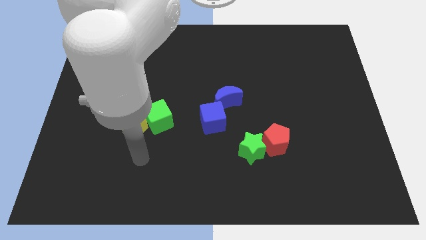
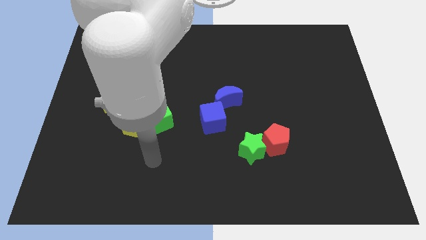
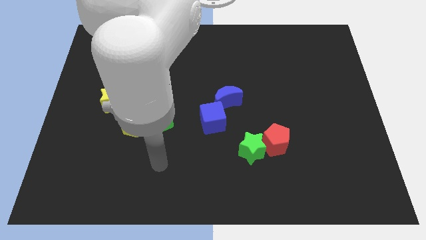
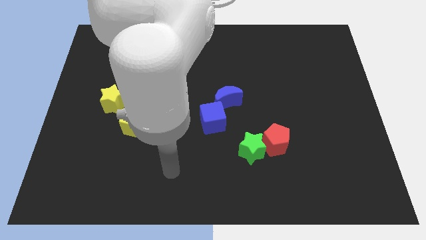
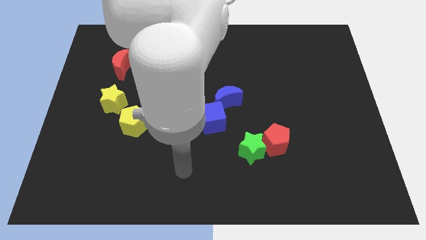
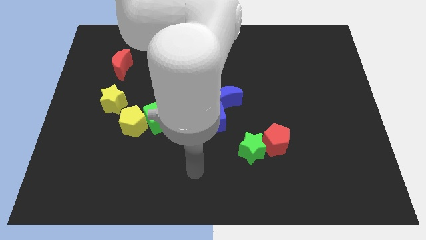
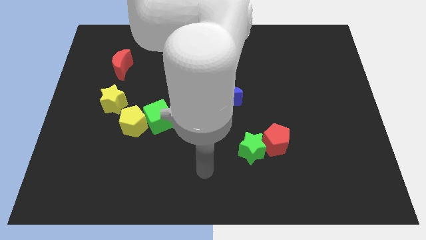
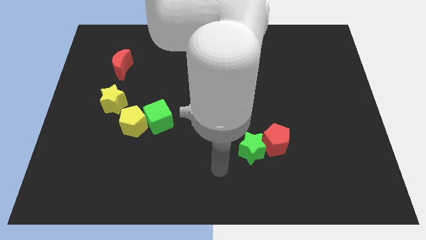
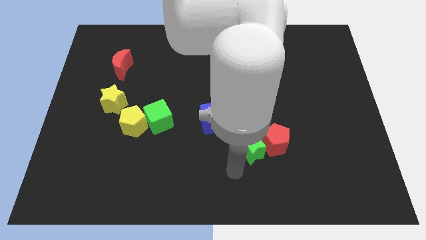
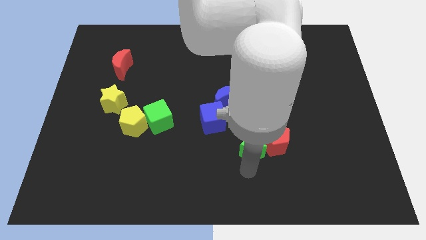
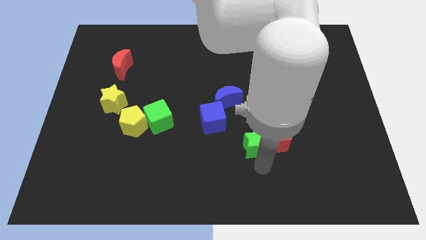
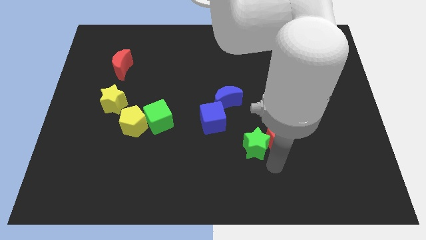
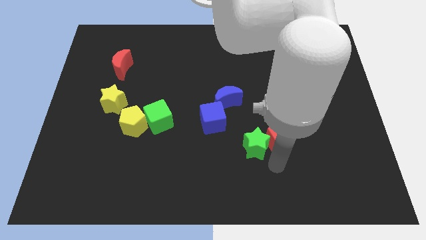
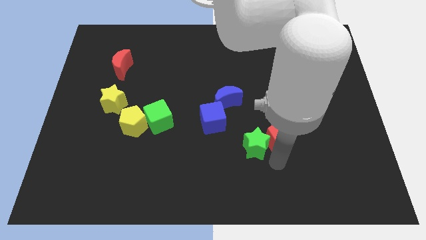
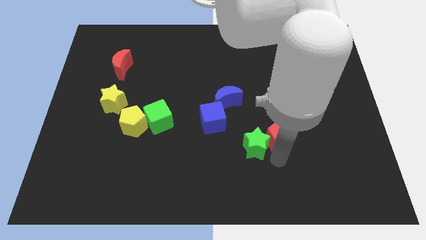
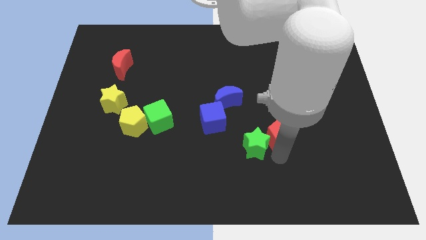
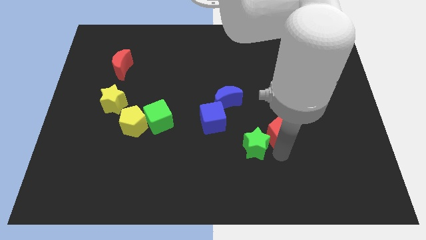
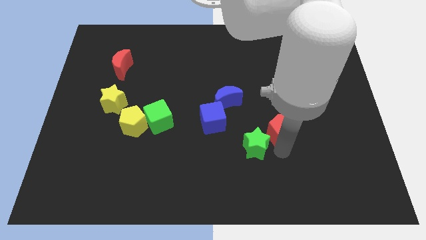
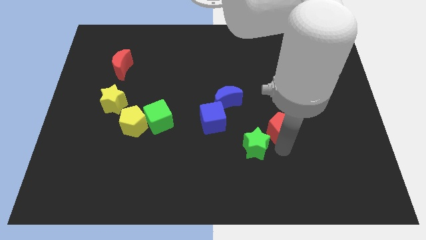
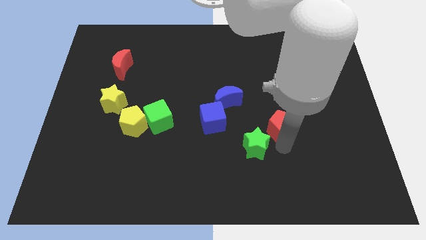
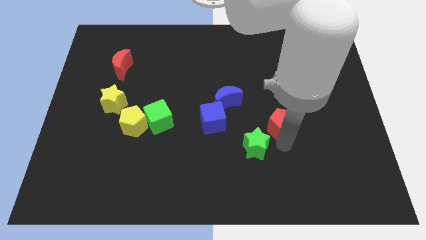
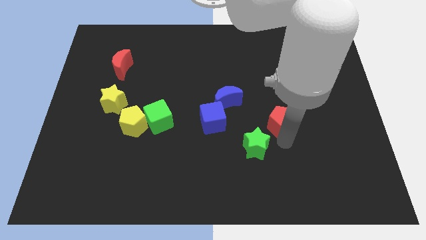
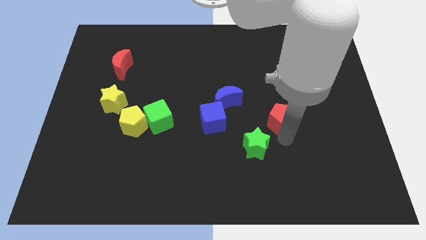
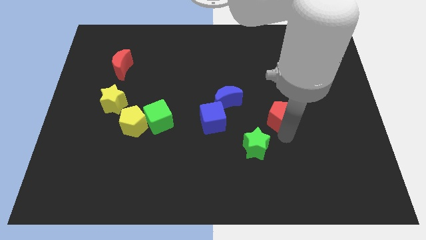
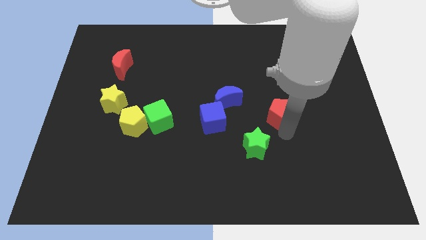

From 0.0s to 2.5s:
push the red pentagon up slightly

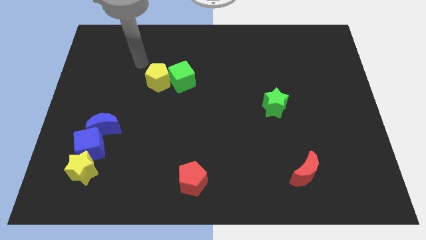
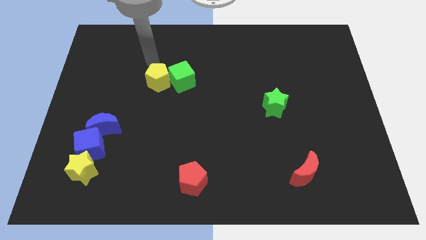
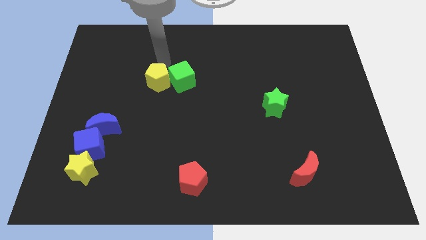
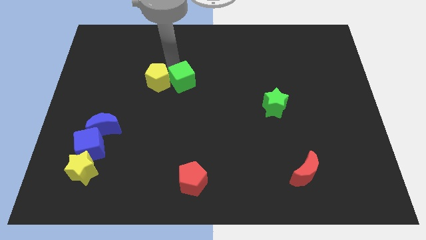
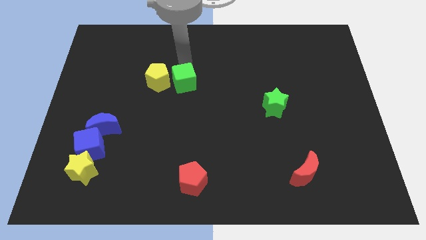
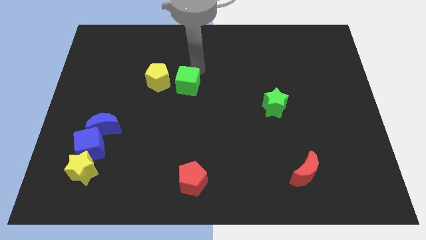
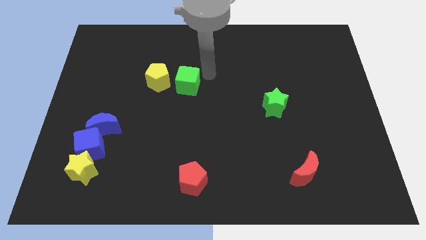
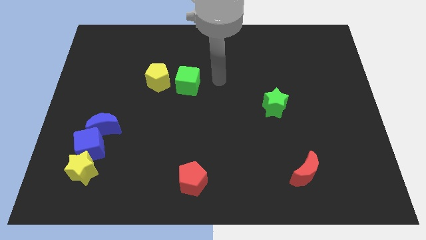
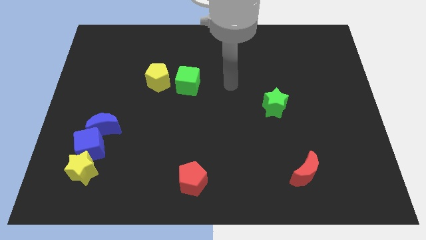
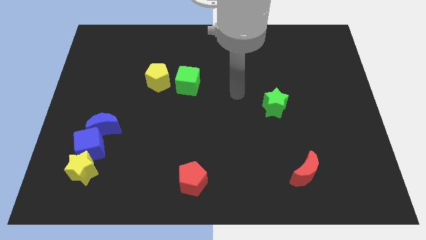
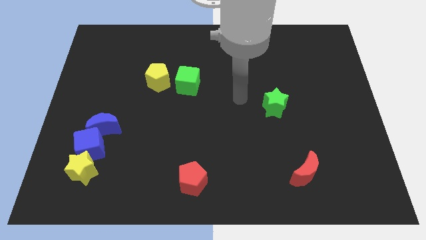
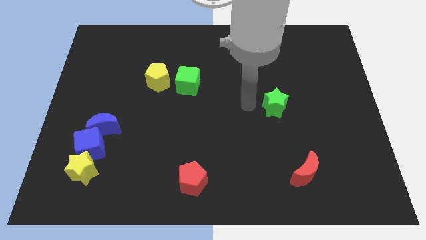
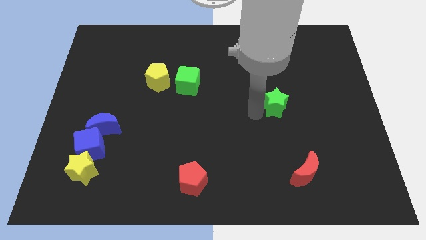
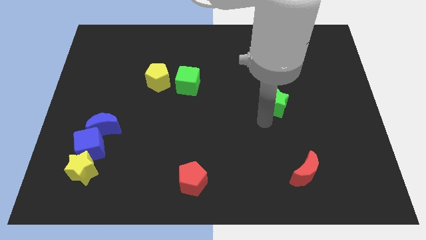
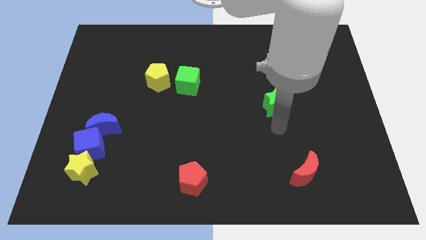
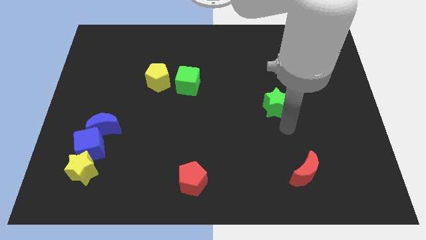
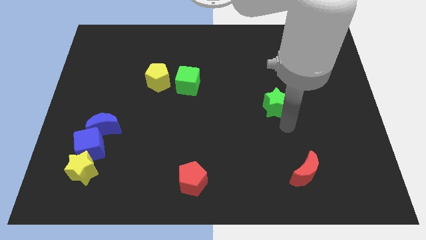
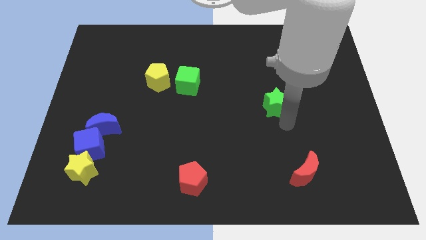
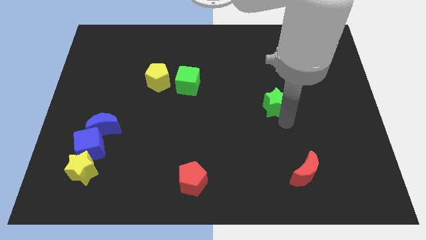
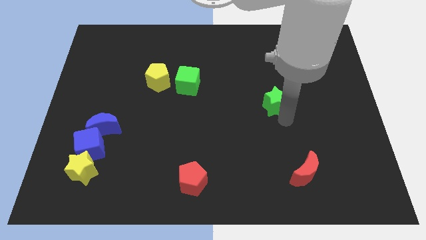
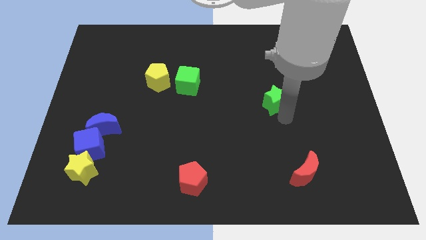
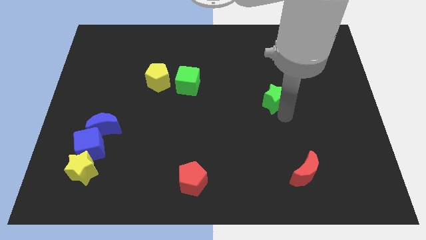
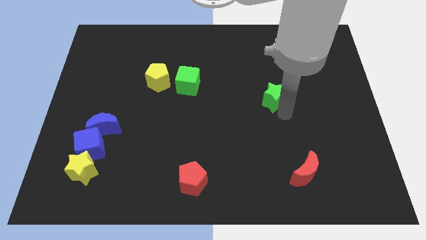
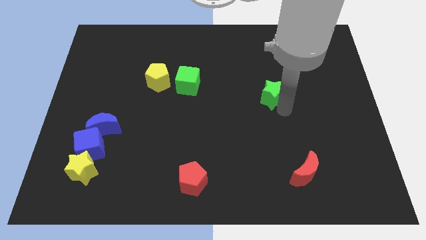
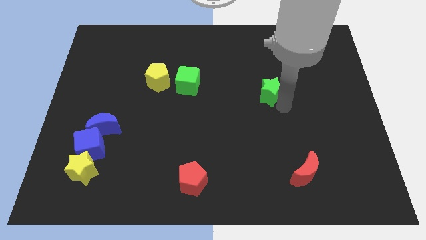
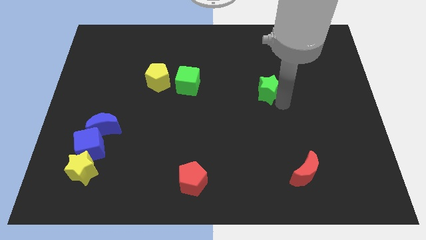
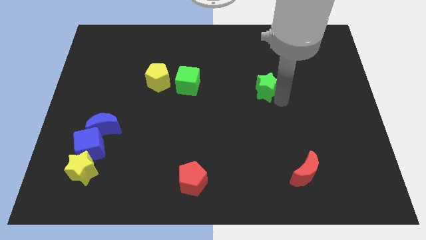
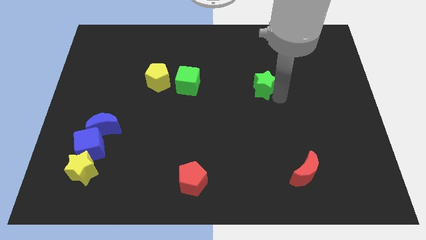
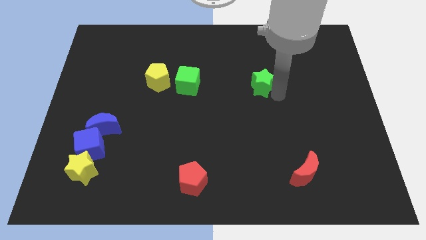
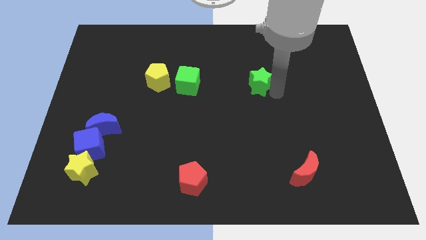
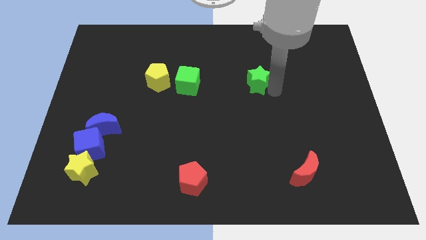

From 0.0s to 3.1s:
slide the green star diagonally up and to the left a little

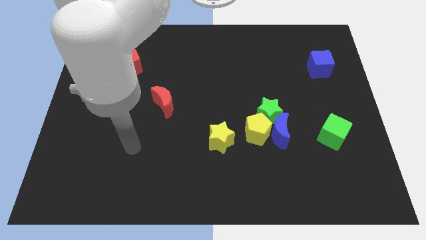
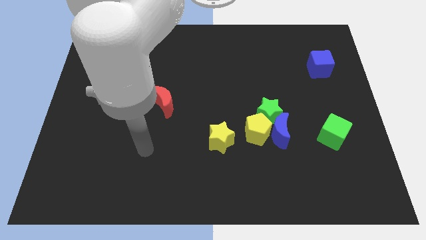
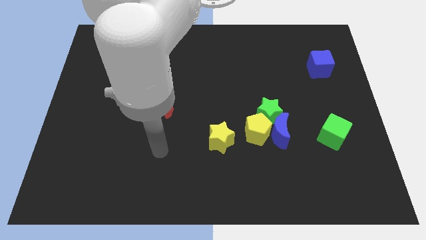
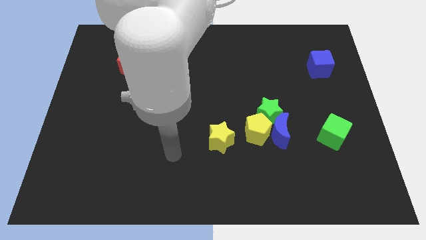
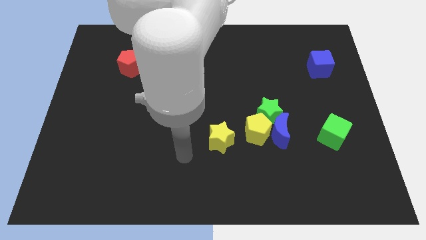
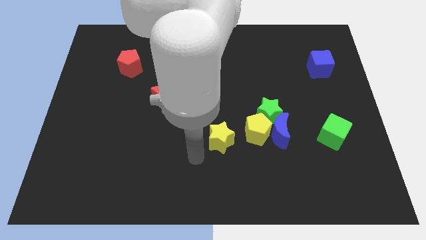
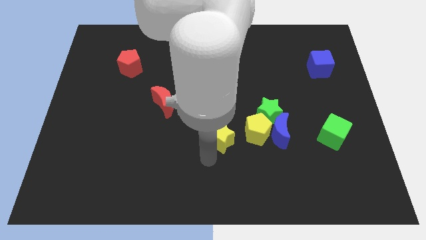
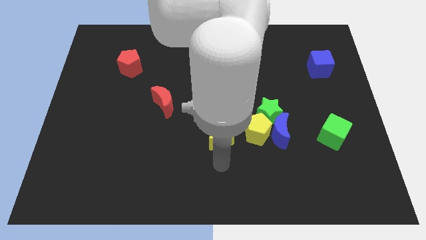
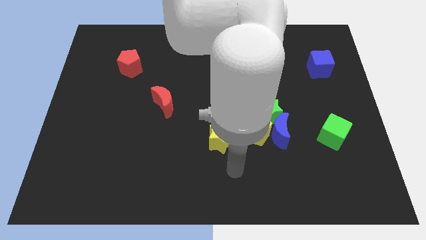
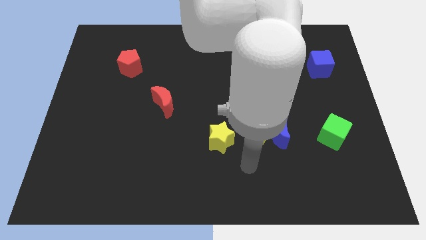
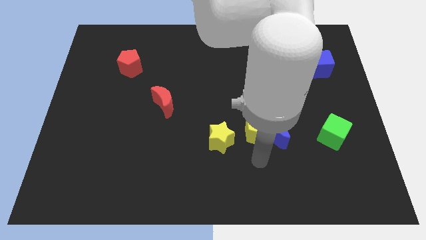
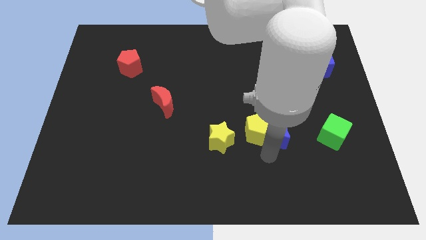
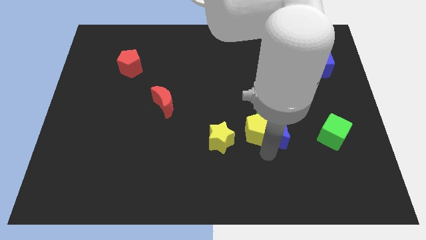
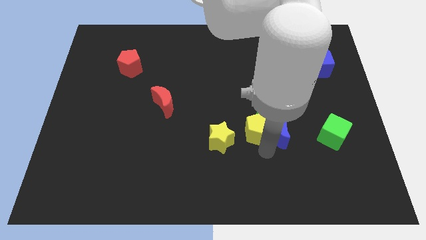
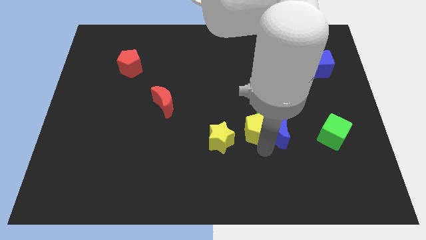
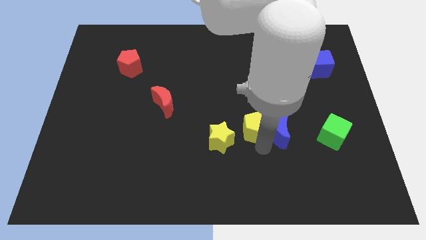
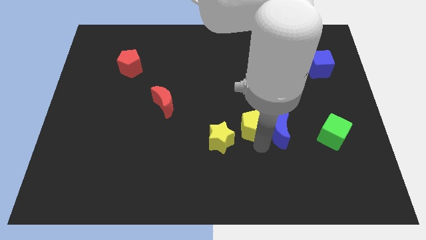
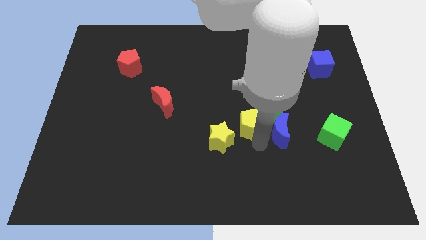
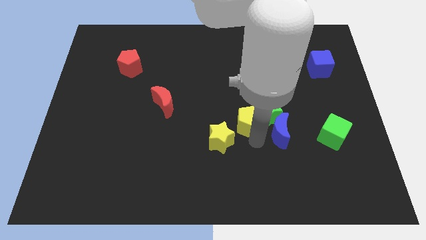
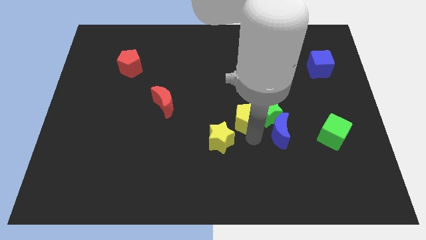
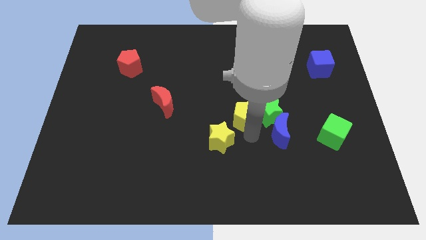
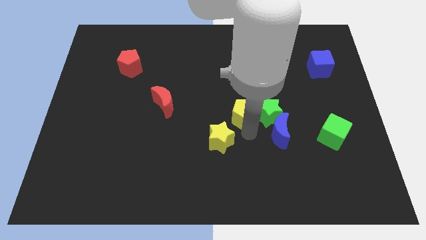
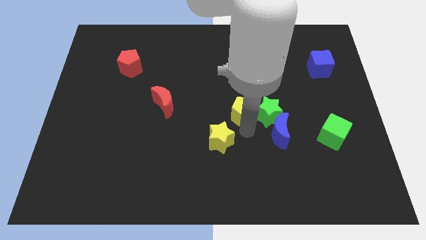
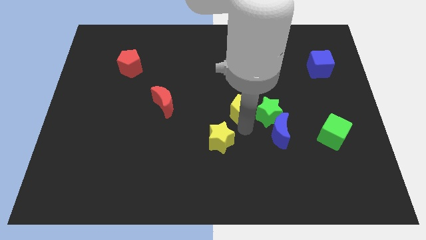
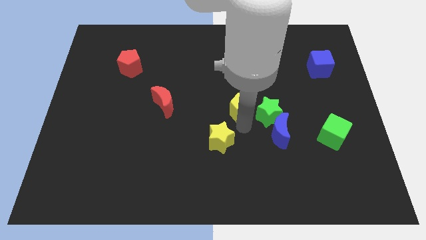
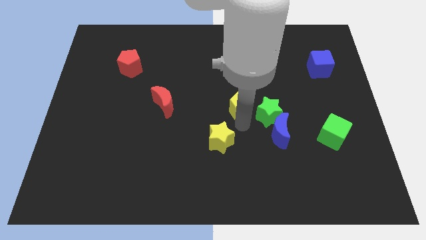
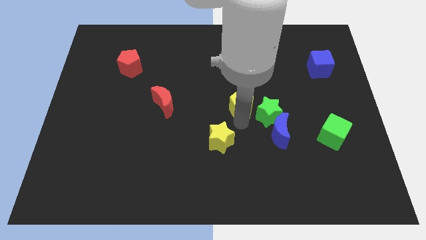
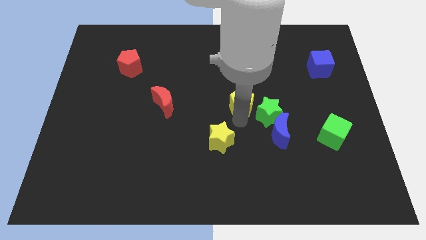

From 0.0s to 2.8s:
slide the yellow pentagon a bit up
